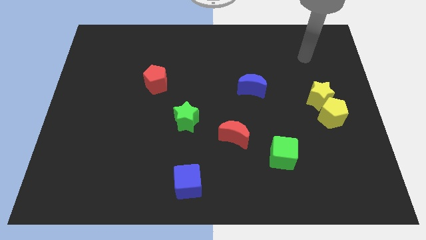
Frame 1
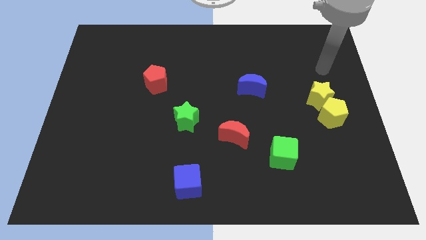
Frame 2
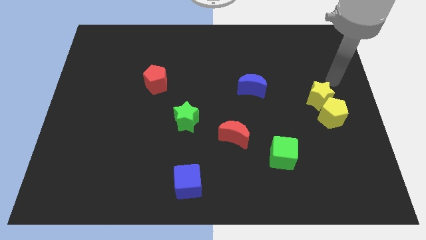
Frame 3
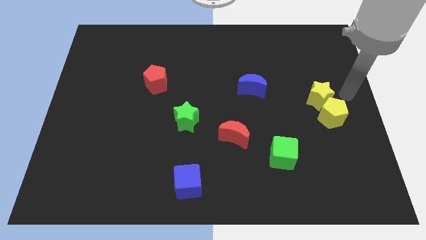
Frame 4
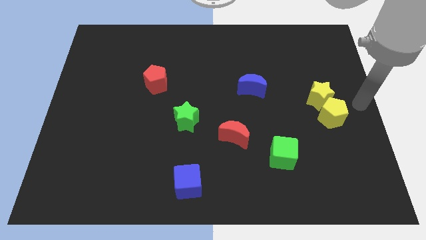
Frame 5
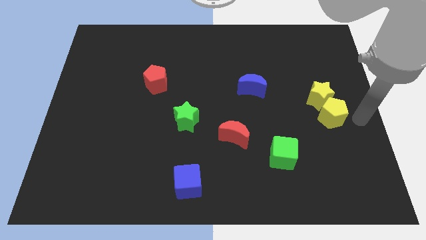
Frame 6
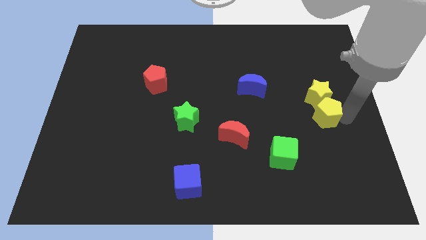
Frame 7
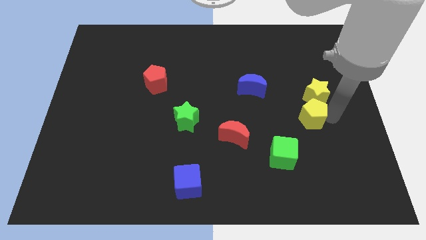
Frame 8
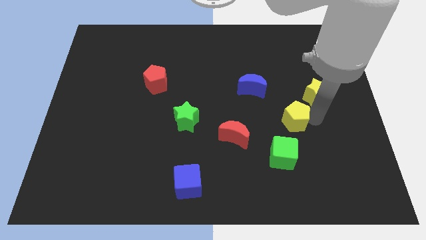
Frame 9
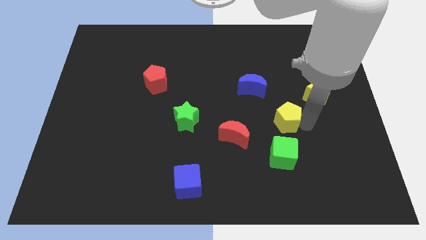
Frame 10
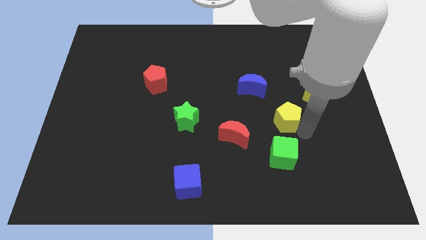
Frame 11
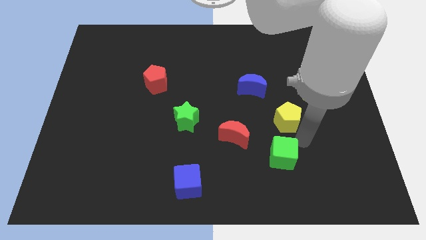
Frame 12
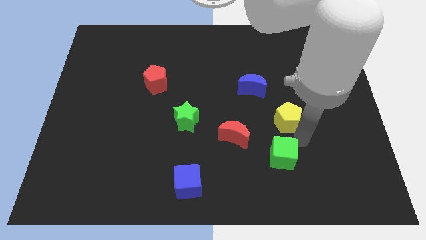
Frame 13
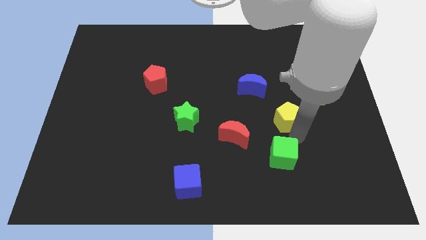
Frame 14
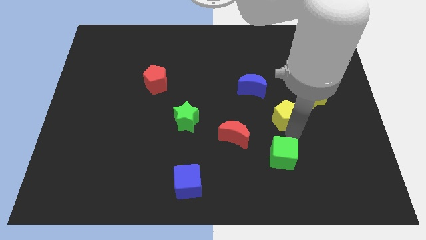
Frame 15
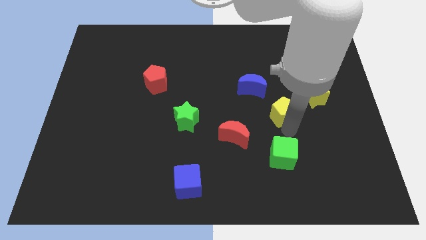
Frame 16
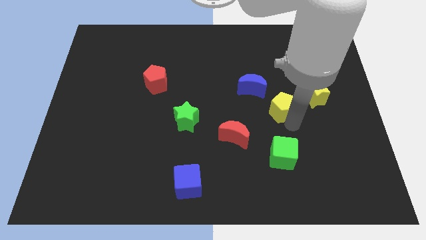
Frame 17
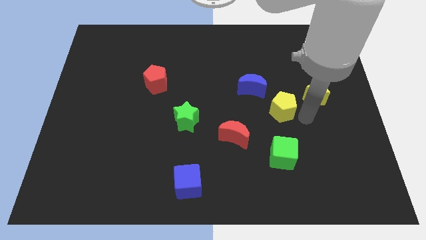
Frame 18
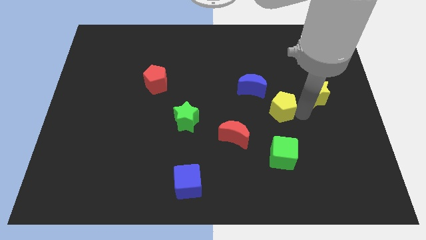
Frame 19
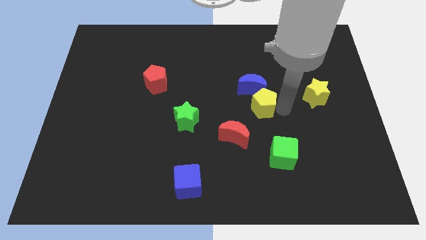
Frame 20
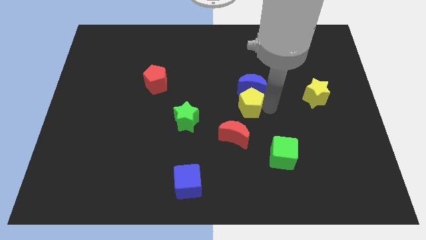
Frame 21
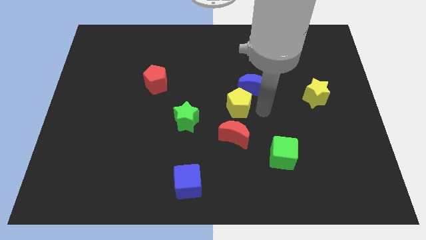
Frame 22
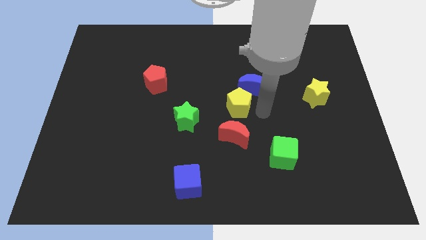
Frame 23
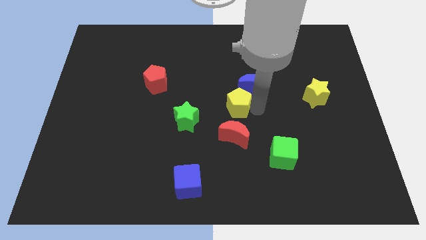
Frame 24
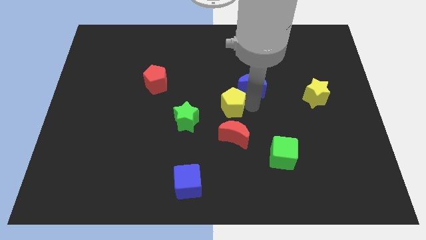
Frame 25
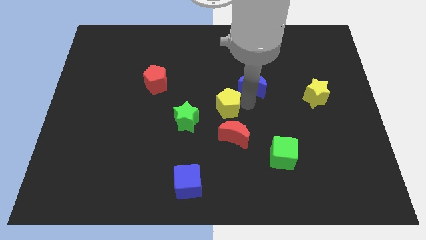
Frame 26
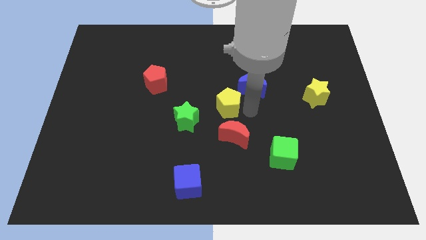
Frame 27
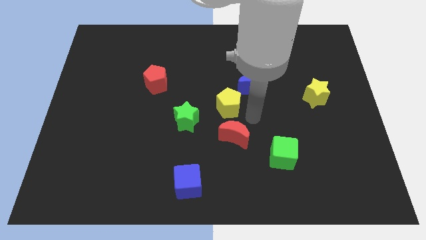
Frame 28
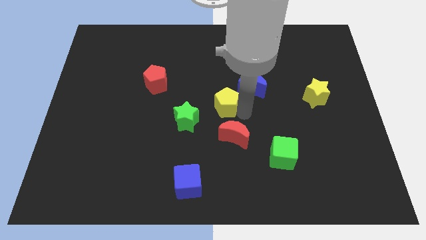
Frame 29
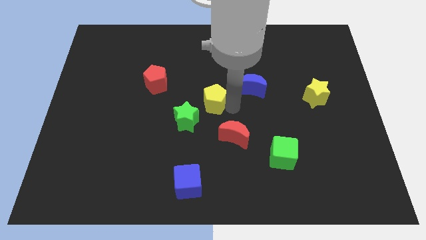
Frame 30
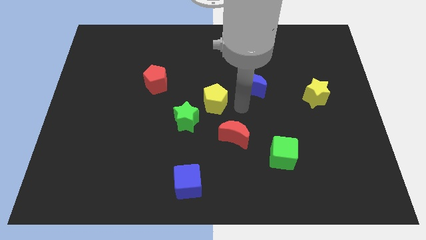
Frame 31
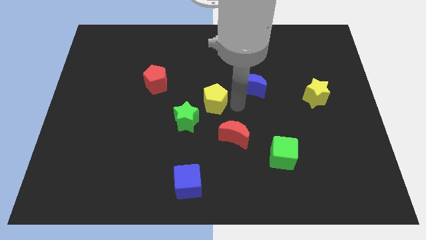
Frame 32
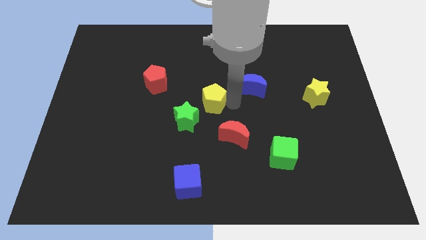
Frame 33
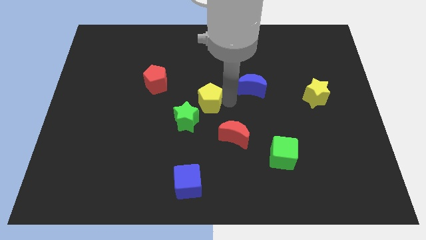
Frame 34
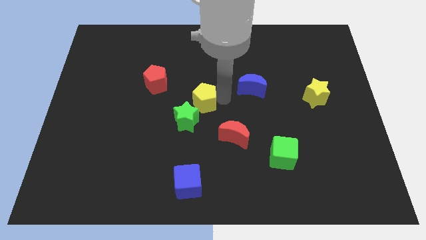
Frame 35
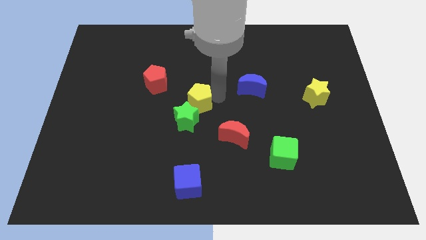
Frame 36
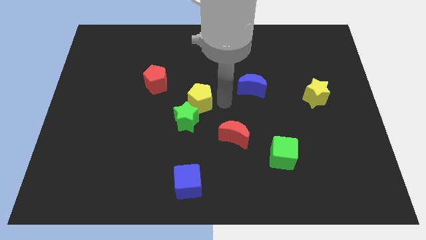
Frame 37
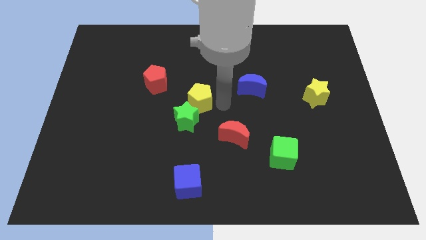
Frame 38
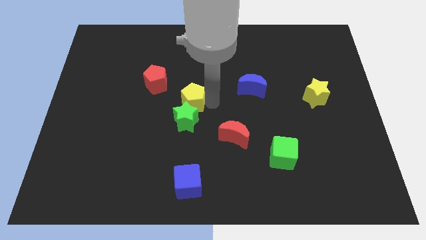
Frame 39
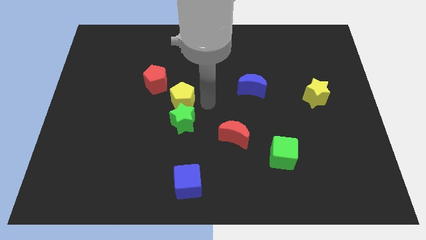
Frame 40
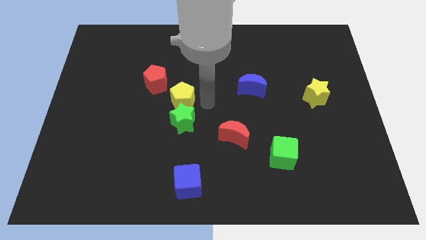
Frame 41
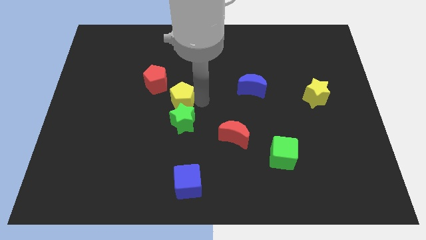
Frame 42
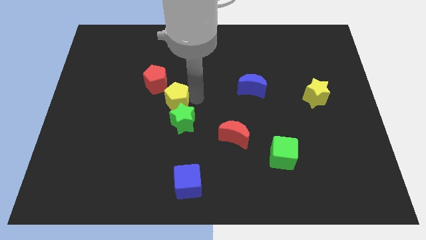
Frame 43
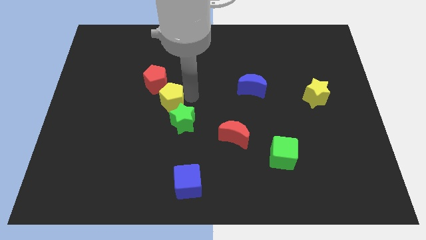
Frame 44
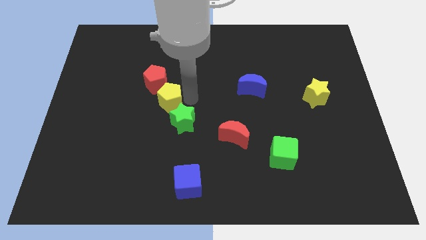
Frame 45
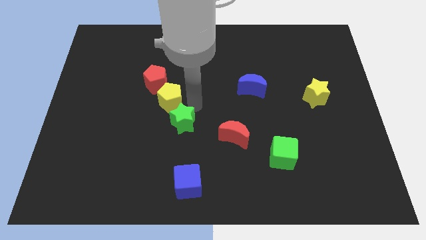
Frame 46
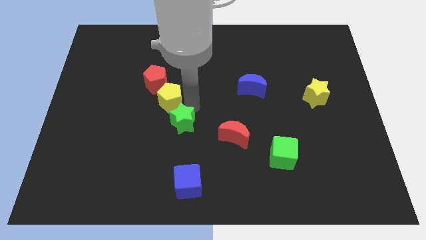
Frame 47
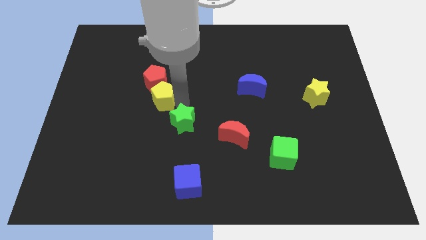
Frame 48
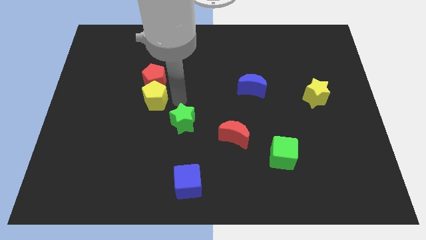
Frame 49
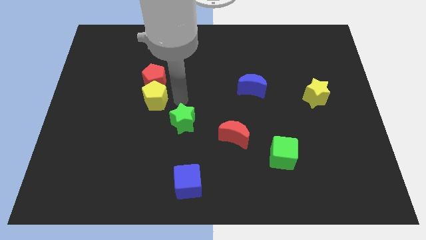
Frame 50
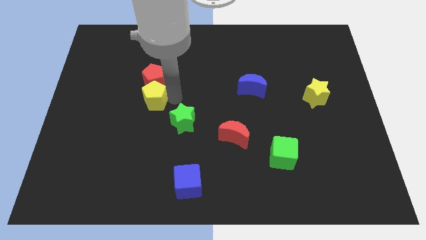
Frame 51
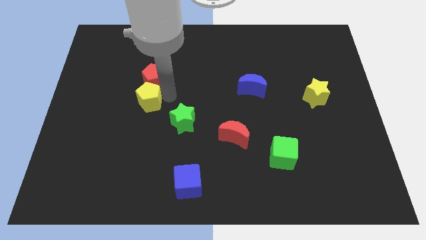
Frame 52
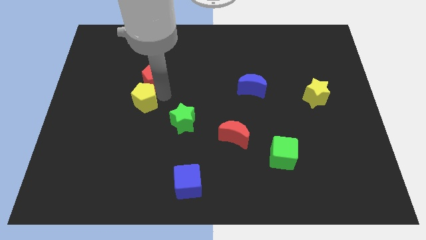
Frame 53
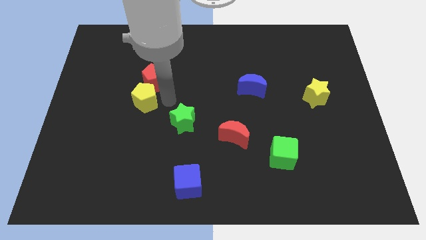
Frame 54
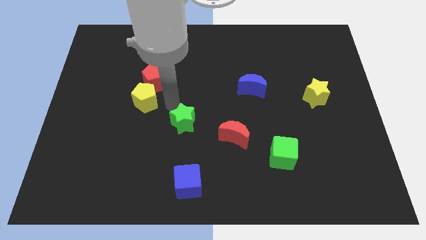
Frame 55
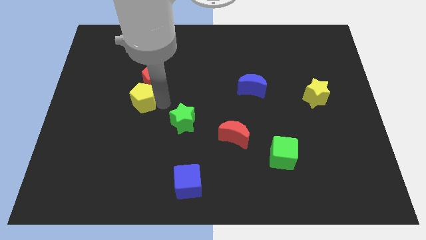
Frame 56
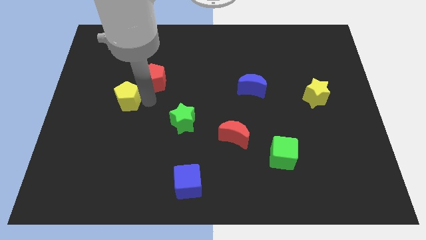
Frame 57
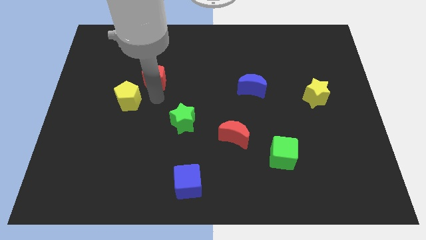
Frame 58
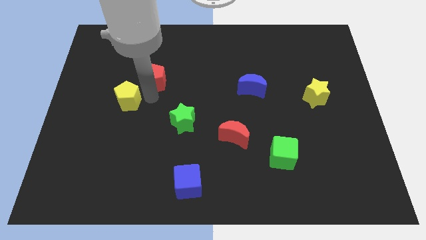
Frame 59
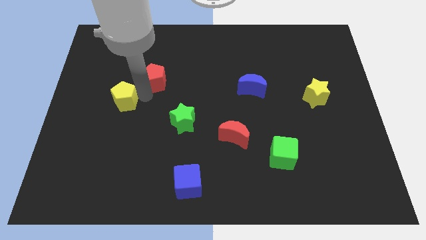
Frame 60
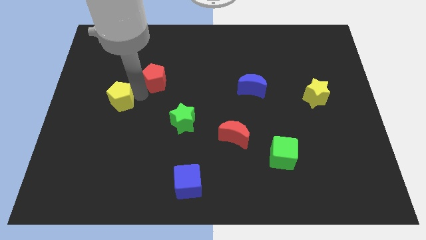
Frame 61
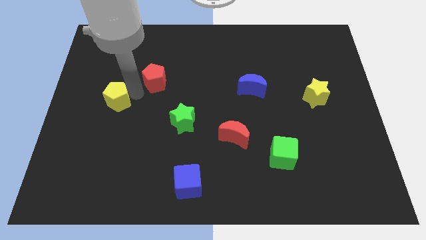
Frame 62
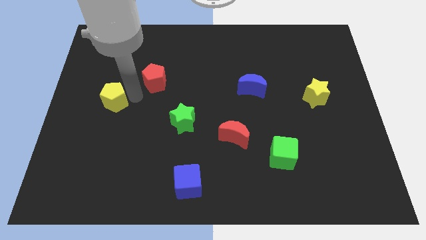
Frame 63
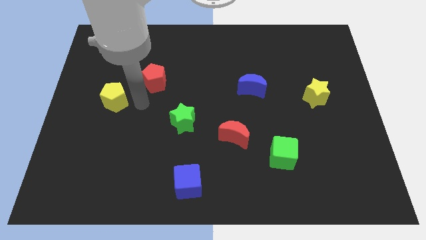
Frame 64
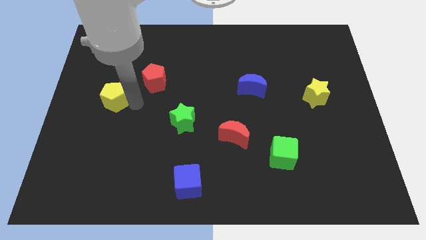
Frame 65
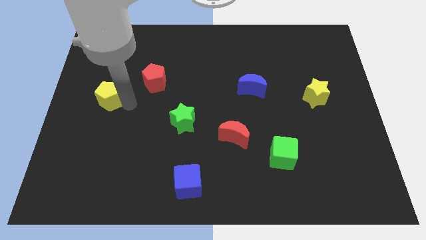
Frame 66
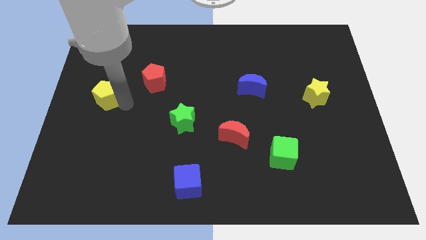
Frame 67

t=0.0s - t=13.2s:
push the yellow pentagon to the left side

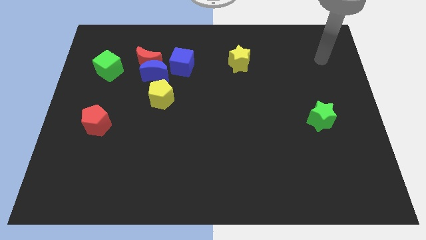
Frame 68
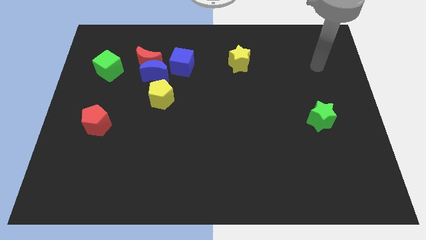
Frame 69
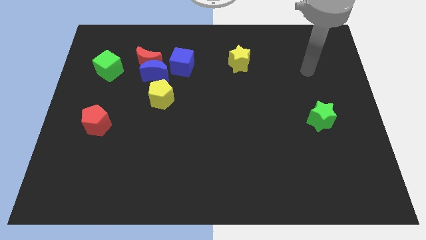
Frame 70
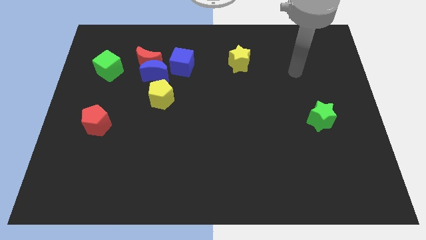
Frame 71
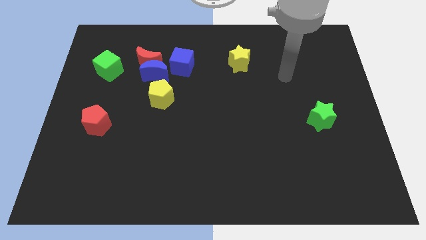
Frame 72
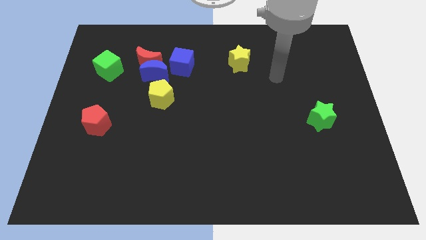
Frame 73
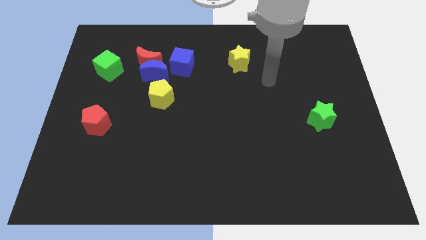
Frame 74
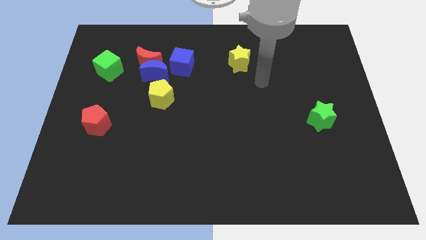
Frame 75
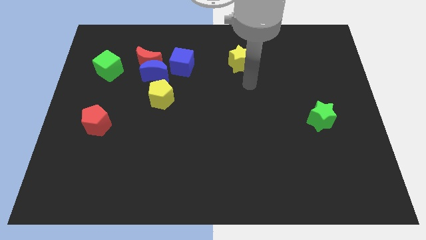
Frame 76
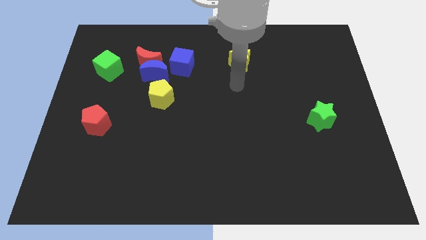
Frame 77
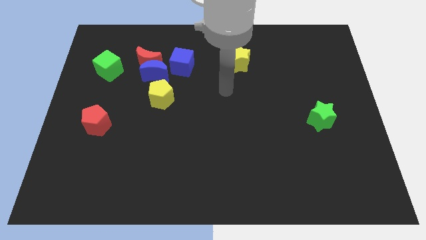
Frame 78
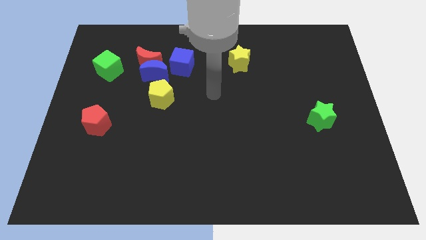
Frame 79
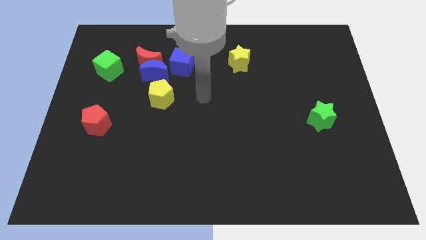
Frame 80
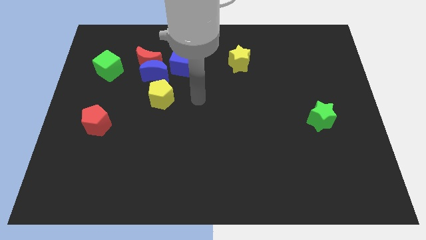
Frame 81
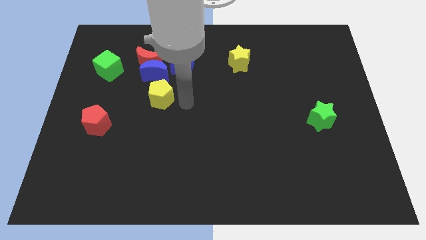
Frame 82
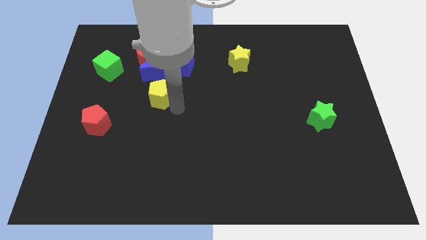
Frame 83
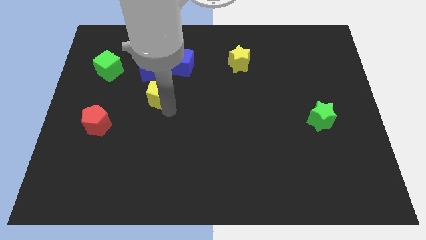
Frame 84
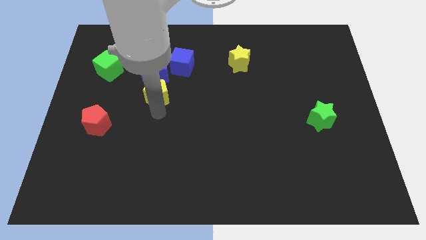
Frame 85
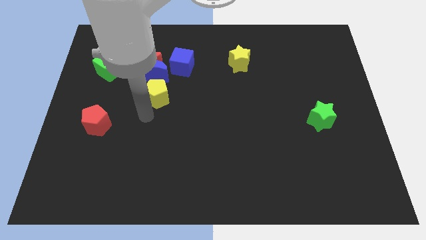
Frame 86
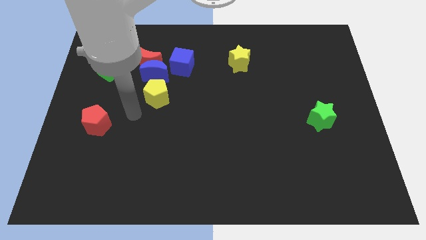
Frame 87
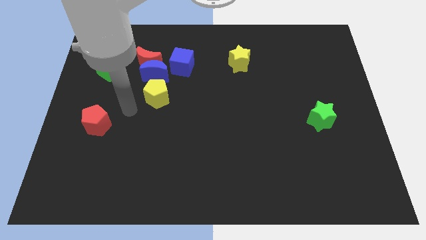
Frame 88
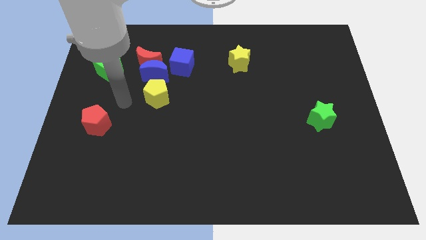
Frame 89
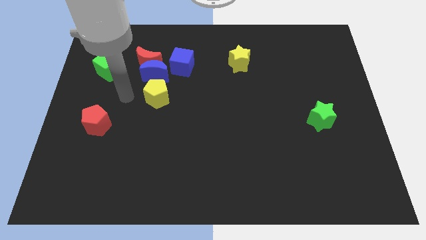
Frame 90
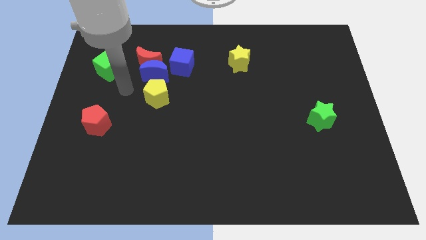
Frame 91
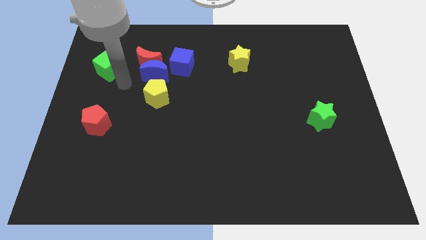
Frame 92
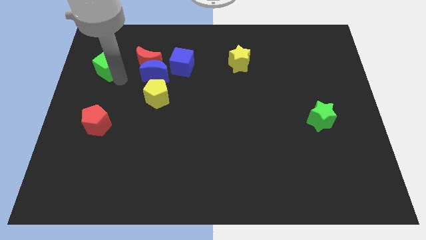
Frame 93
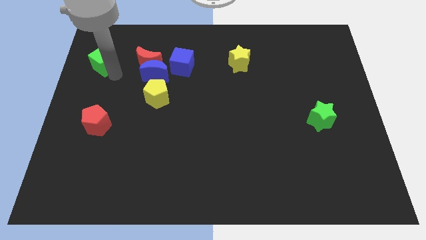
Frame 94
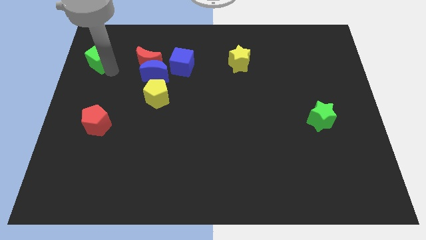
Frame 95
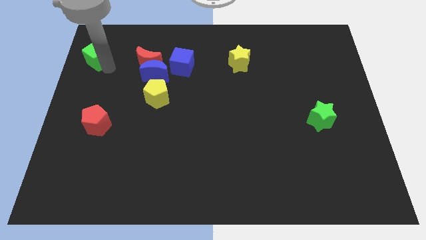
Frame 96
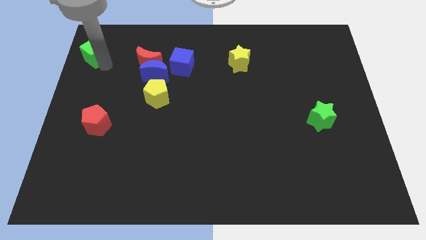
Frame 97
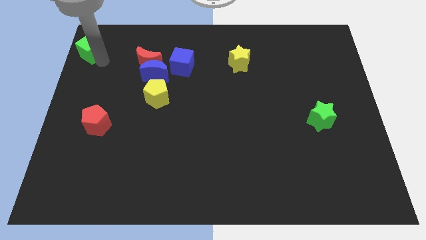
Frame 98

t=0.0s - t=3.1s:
put the green cube to the top left
